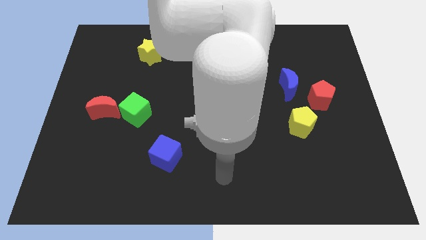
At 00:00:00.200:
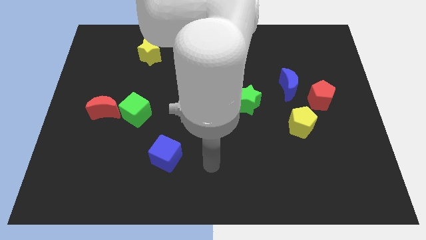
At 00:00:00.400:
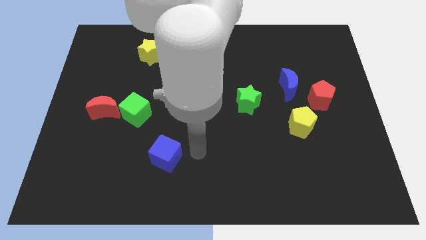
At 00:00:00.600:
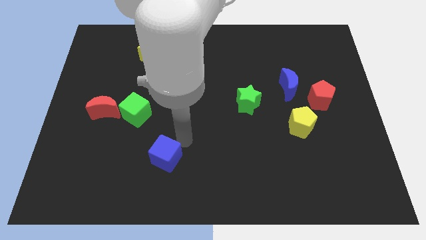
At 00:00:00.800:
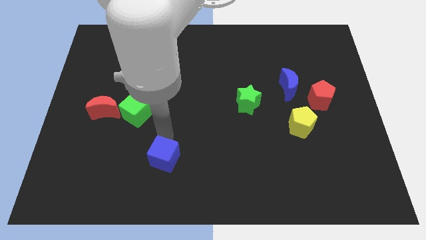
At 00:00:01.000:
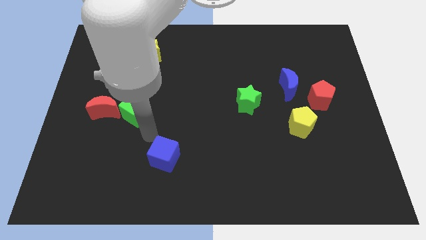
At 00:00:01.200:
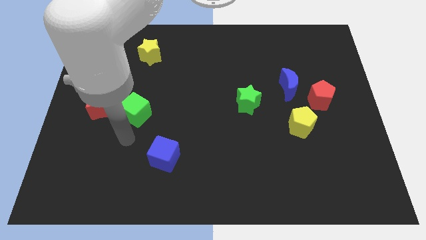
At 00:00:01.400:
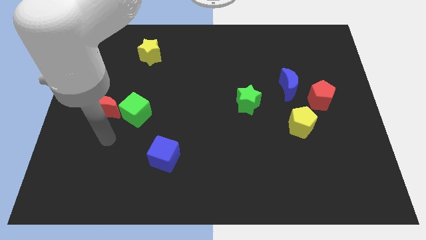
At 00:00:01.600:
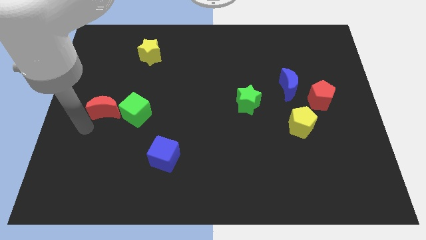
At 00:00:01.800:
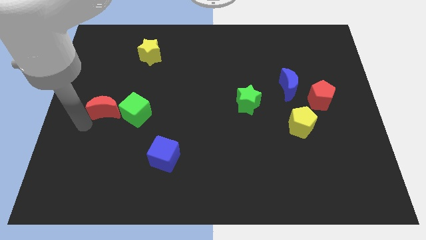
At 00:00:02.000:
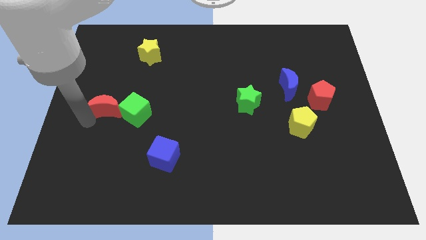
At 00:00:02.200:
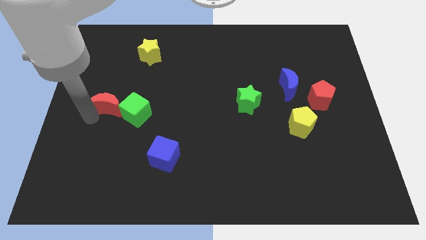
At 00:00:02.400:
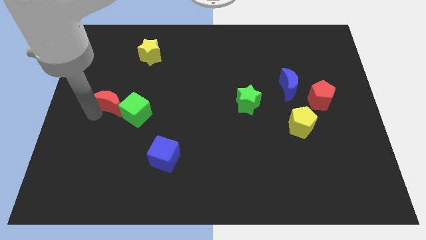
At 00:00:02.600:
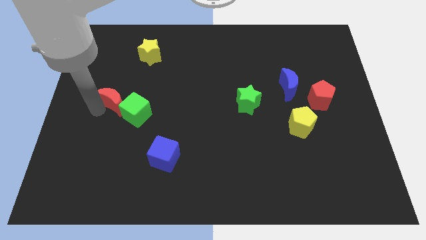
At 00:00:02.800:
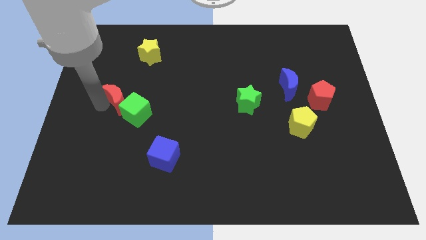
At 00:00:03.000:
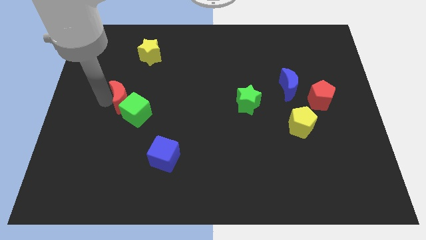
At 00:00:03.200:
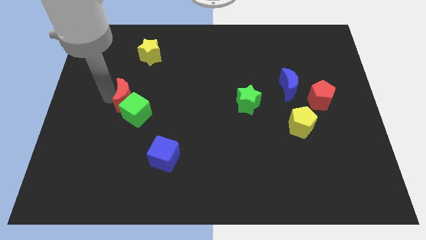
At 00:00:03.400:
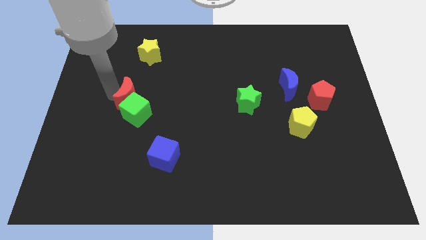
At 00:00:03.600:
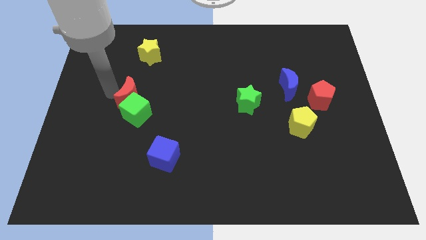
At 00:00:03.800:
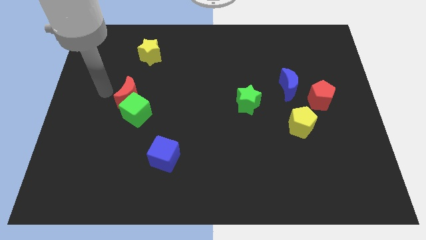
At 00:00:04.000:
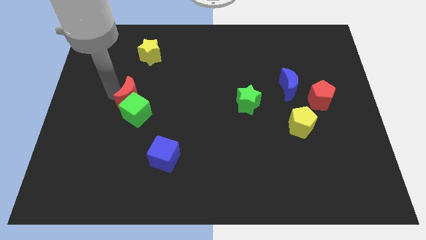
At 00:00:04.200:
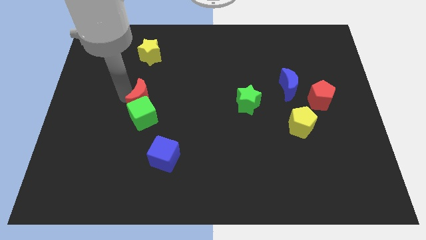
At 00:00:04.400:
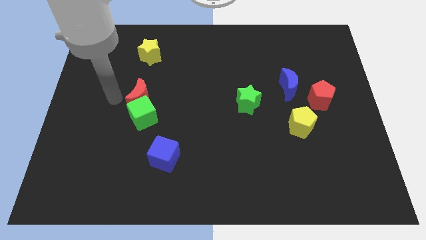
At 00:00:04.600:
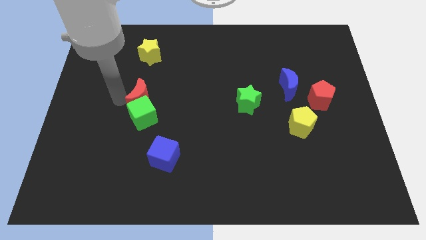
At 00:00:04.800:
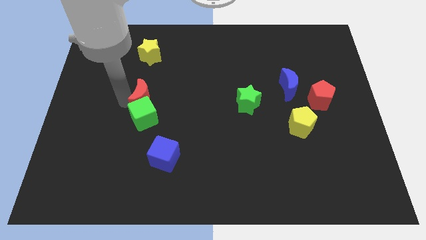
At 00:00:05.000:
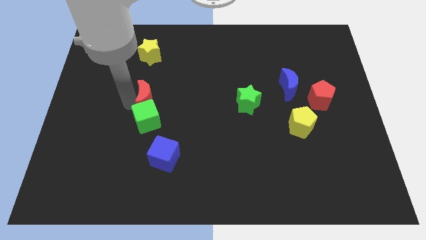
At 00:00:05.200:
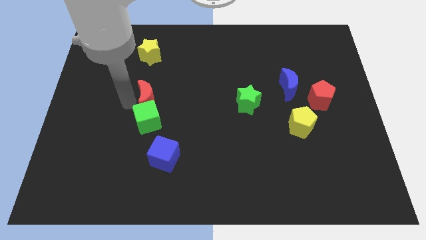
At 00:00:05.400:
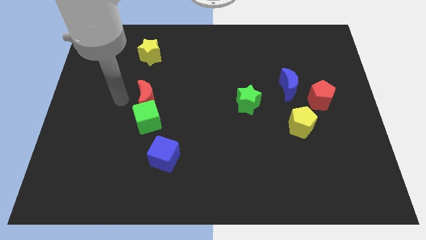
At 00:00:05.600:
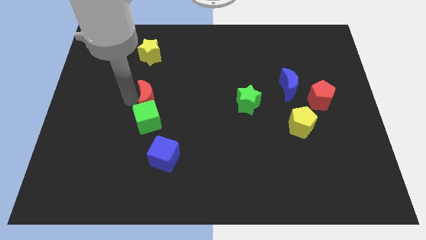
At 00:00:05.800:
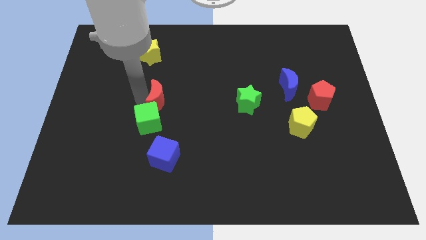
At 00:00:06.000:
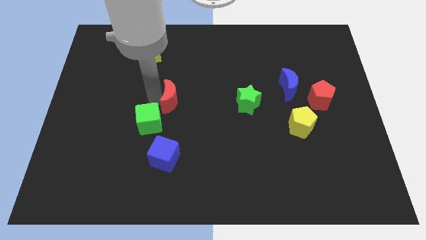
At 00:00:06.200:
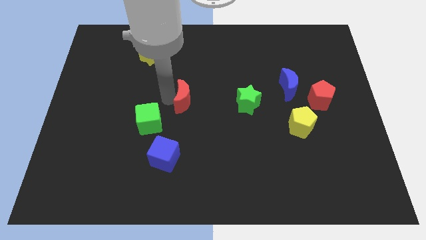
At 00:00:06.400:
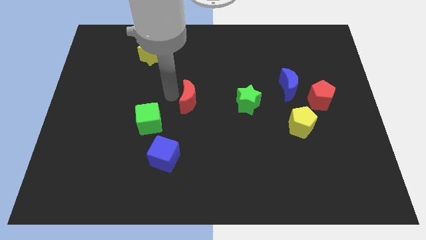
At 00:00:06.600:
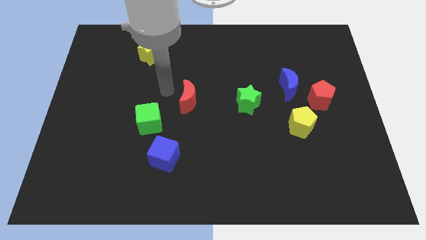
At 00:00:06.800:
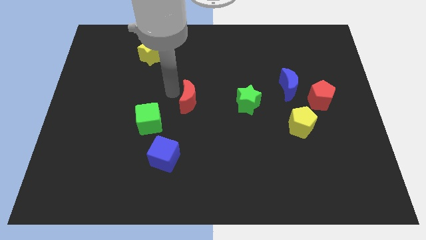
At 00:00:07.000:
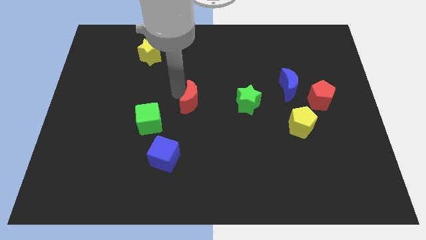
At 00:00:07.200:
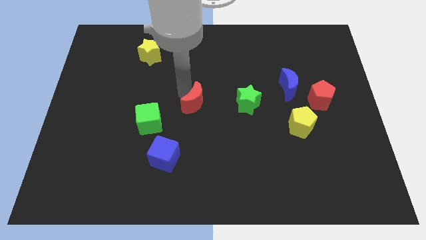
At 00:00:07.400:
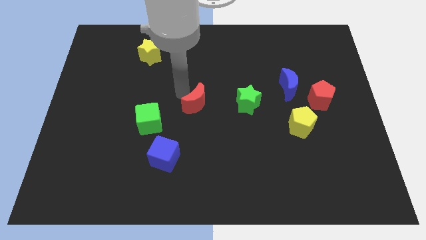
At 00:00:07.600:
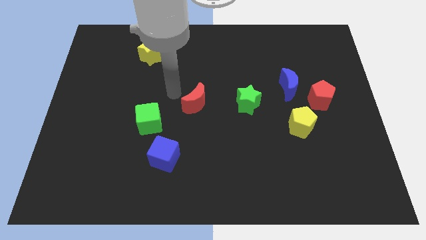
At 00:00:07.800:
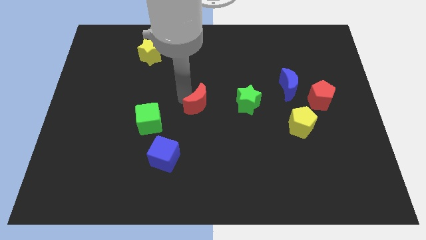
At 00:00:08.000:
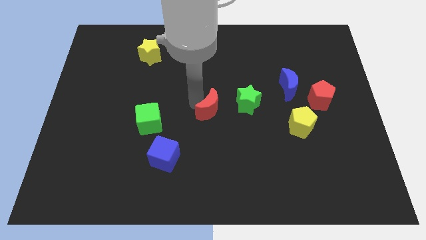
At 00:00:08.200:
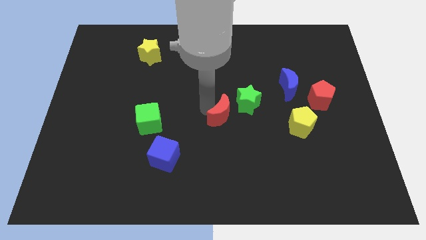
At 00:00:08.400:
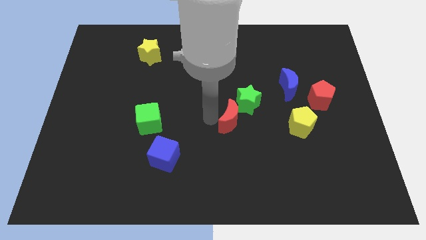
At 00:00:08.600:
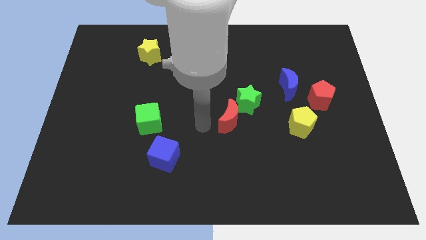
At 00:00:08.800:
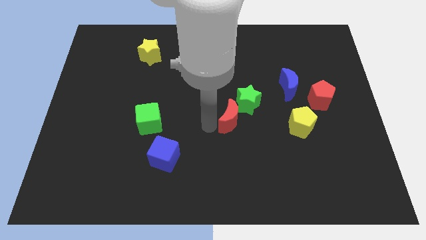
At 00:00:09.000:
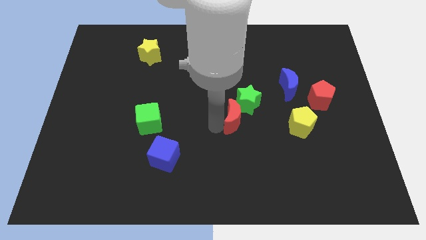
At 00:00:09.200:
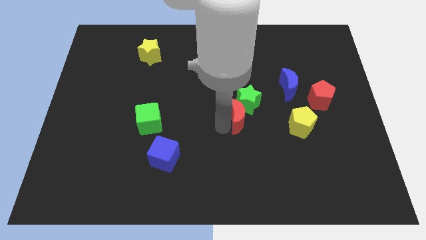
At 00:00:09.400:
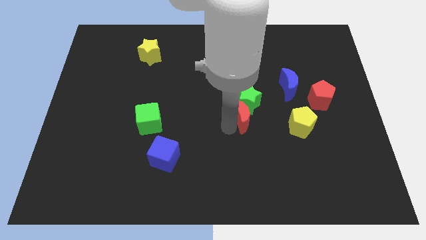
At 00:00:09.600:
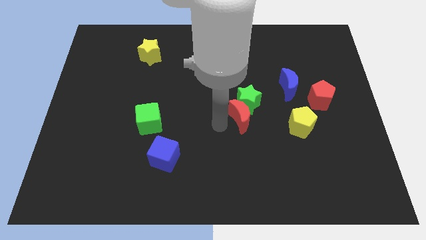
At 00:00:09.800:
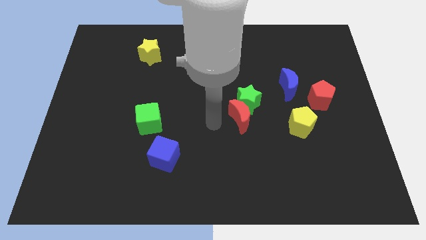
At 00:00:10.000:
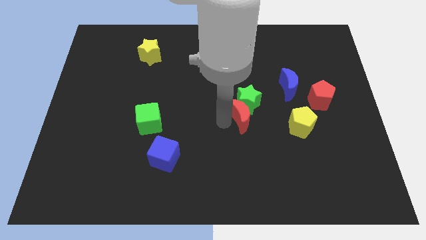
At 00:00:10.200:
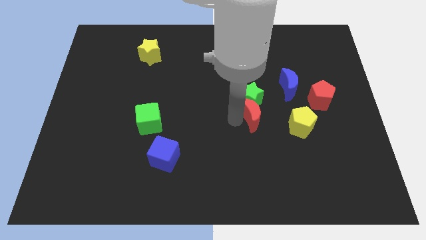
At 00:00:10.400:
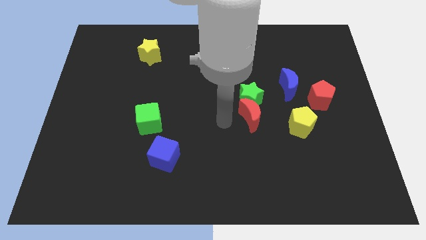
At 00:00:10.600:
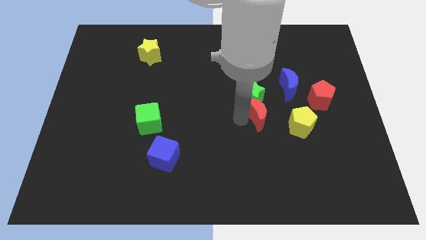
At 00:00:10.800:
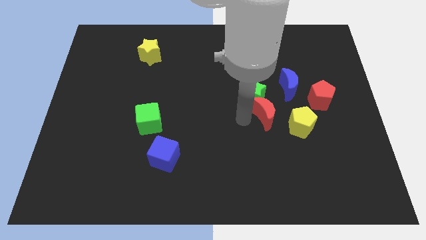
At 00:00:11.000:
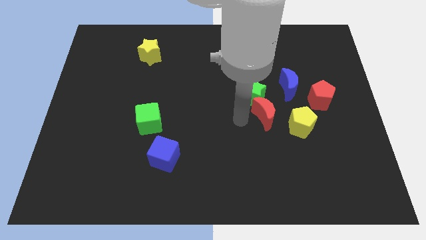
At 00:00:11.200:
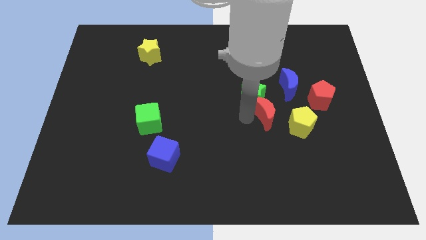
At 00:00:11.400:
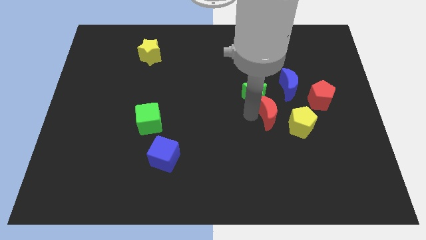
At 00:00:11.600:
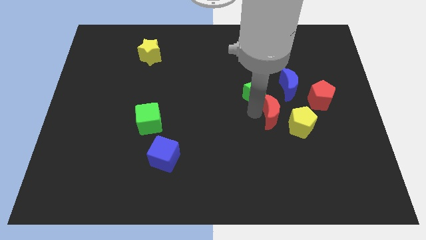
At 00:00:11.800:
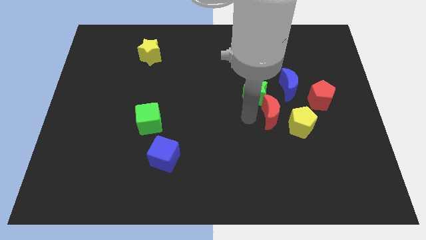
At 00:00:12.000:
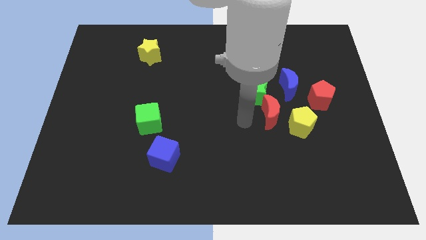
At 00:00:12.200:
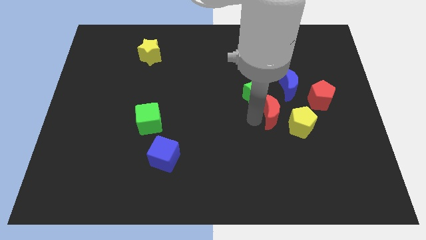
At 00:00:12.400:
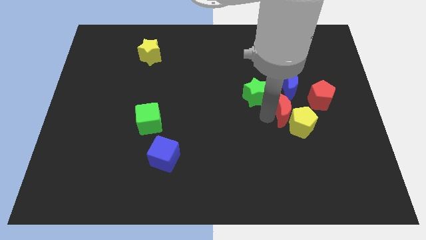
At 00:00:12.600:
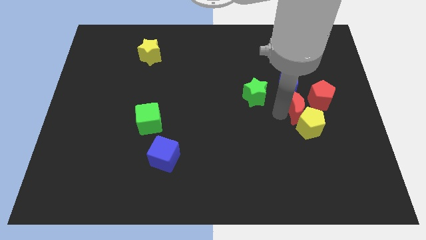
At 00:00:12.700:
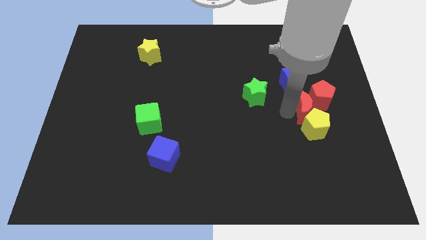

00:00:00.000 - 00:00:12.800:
move the red moon next to the red pentagon
